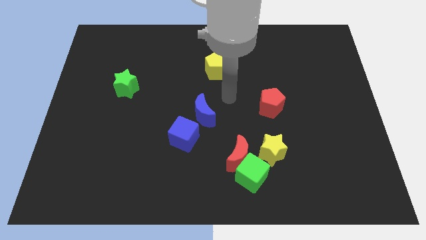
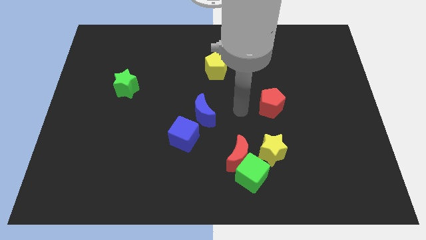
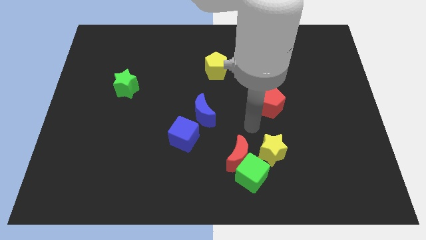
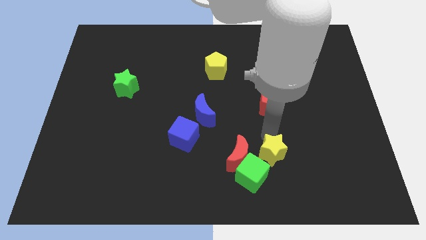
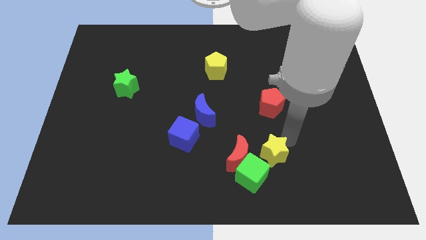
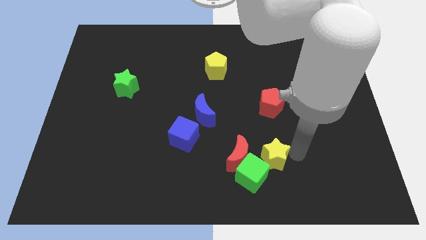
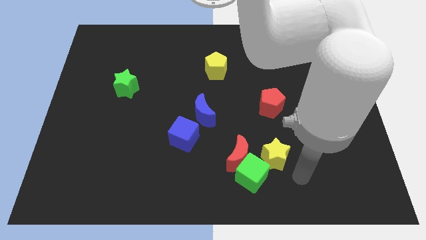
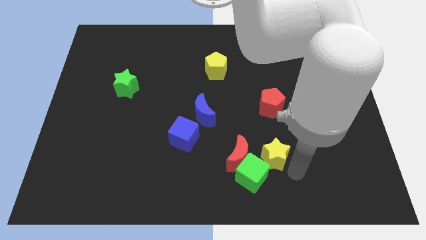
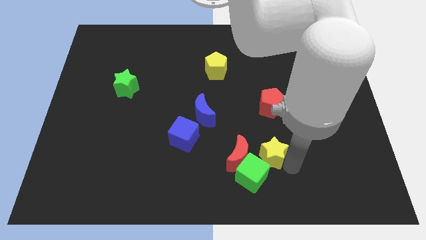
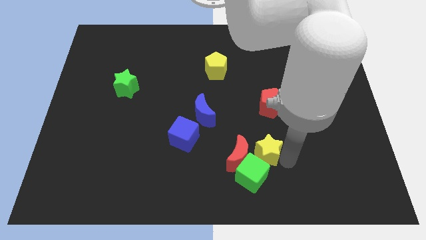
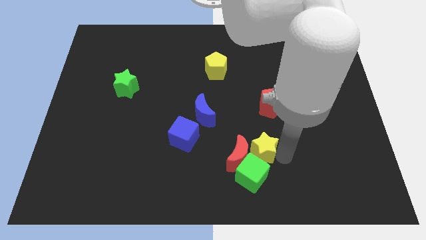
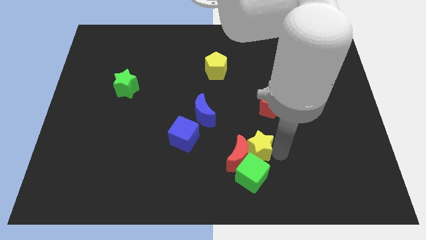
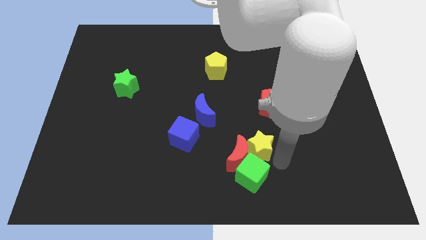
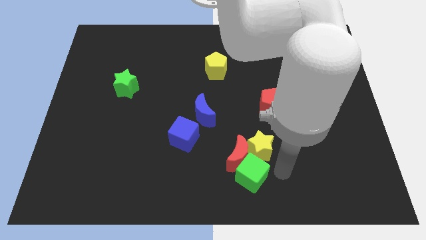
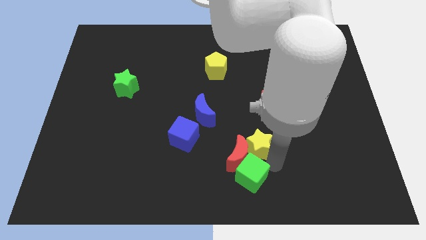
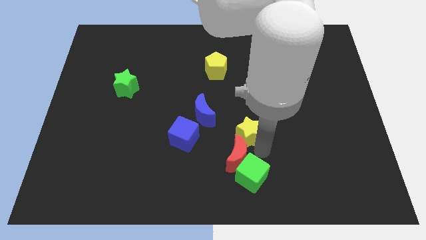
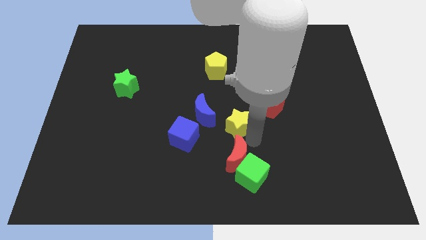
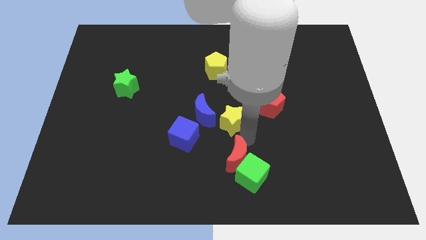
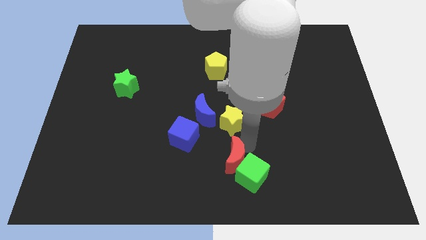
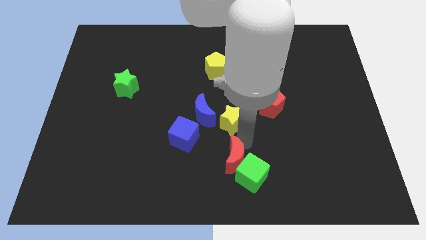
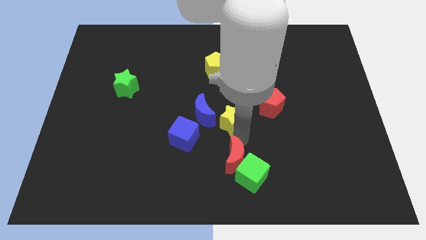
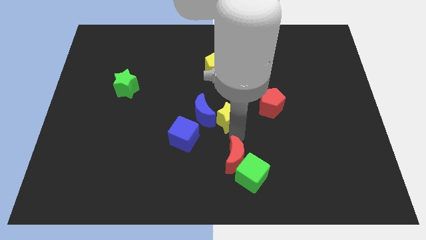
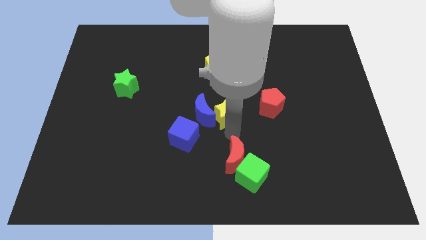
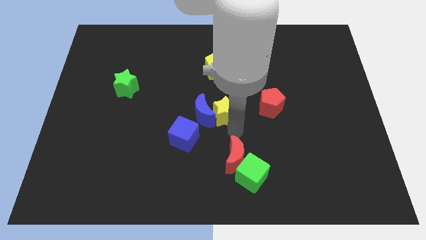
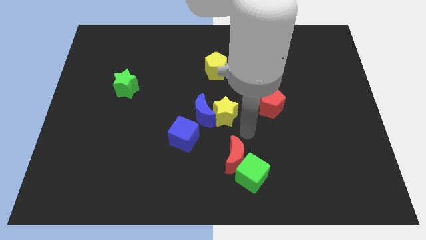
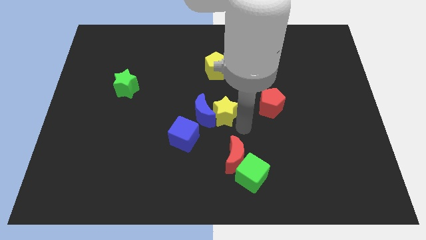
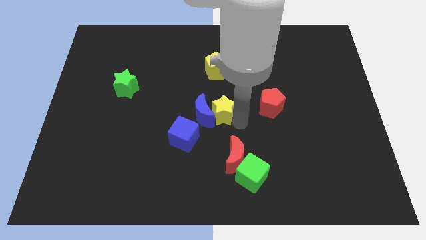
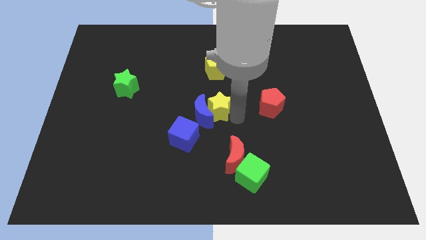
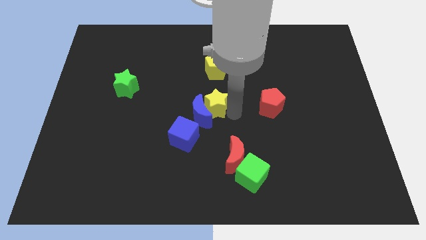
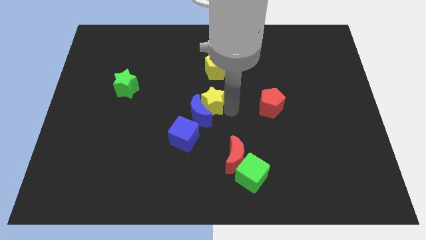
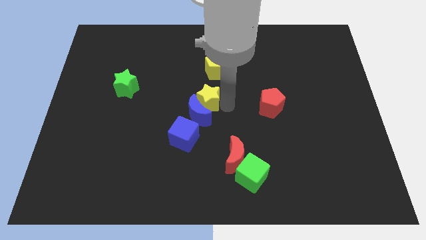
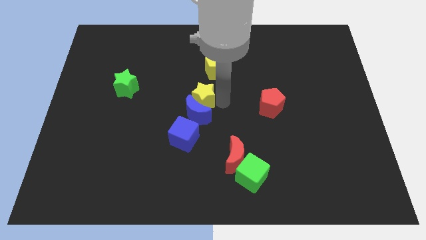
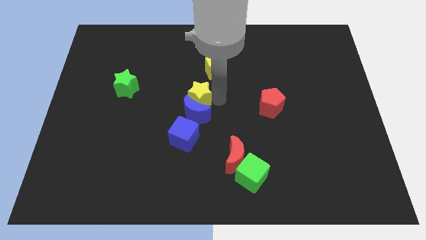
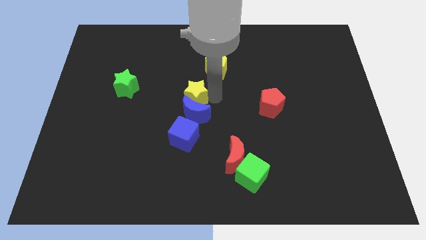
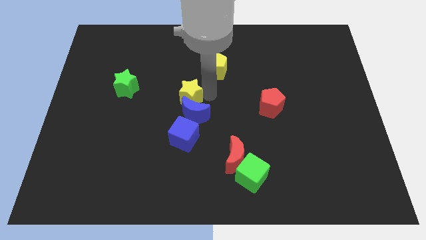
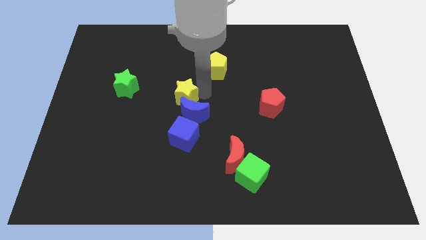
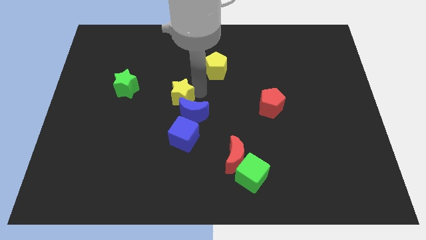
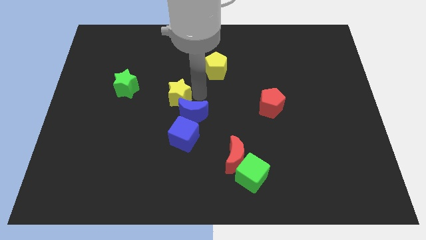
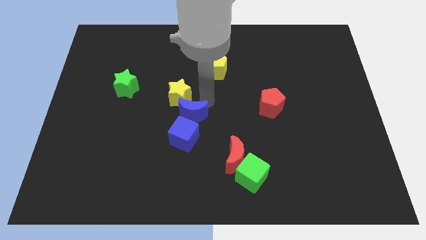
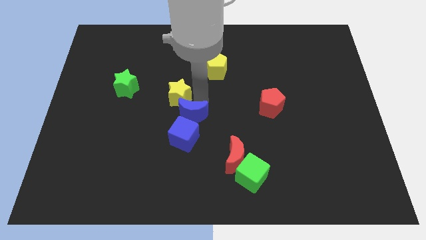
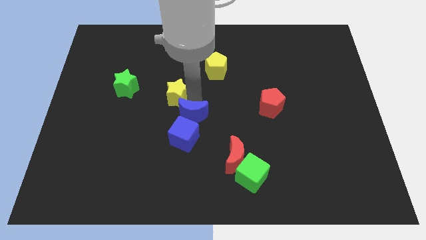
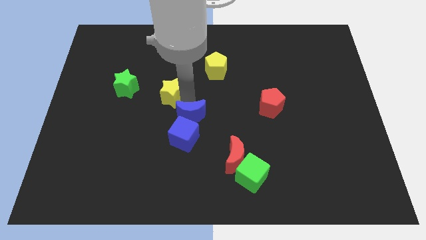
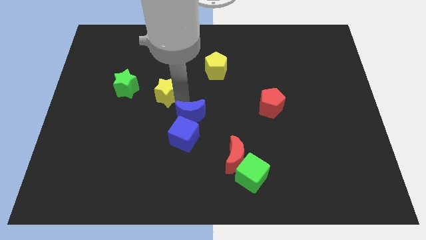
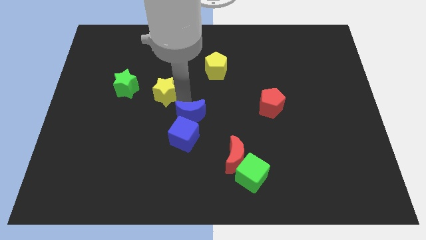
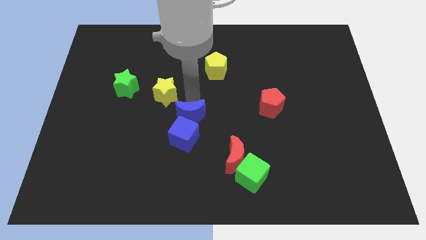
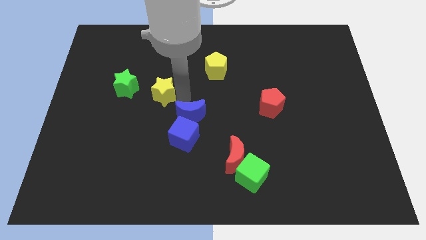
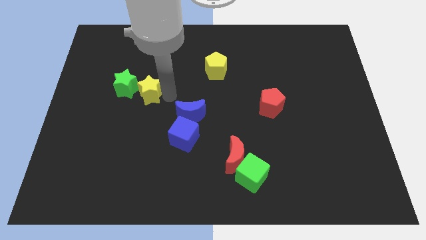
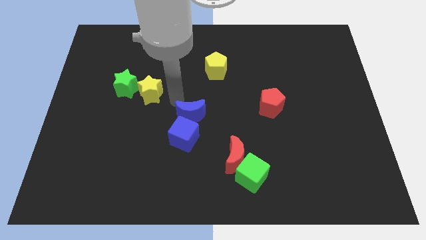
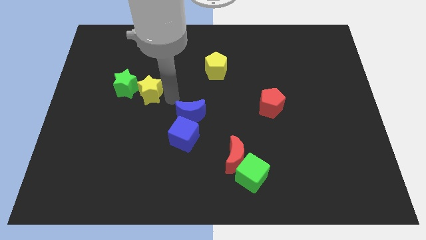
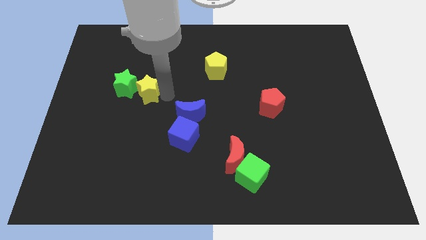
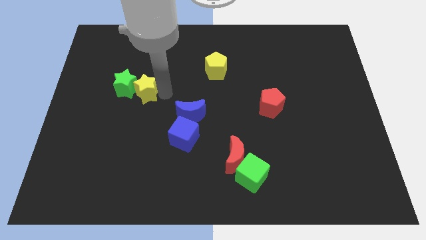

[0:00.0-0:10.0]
push the yellow star close to the green star

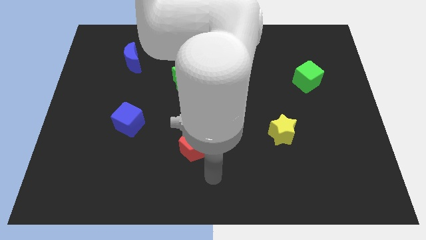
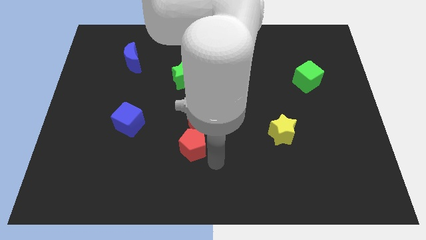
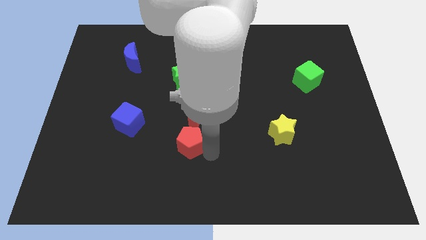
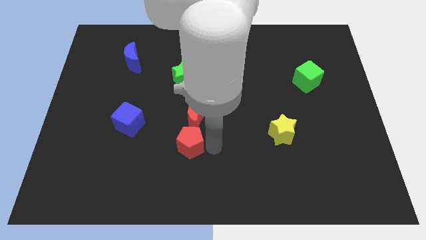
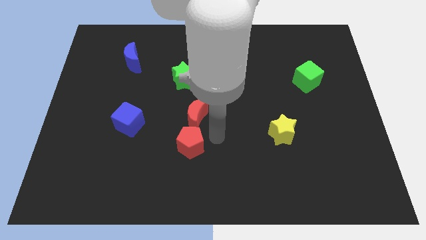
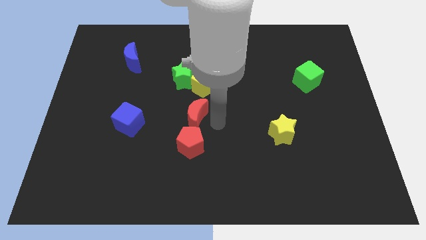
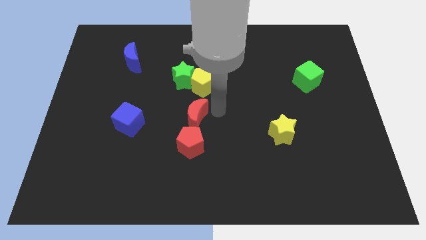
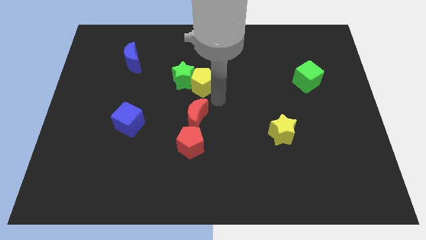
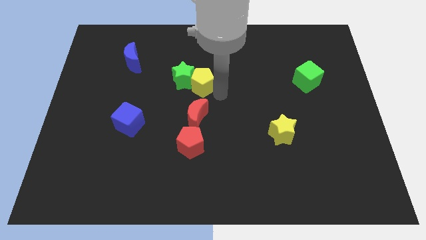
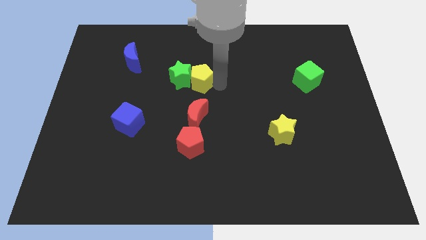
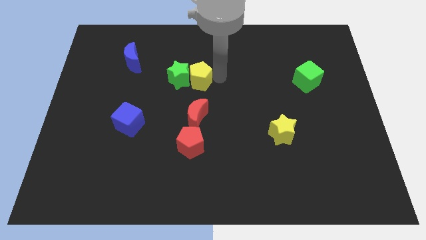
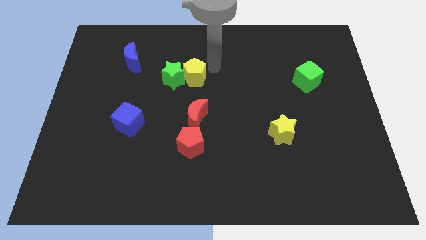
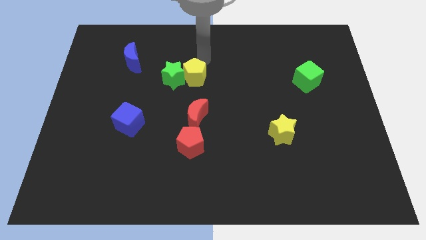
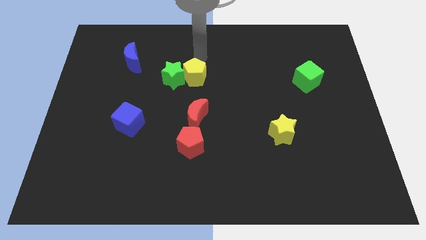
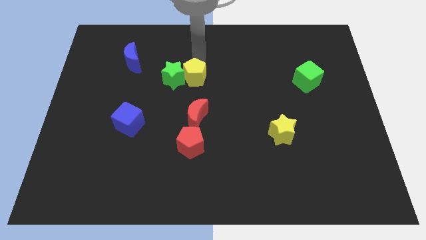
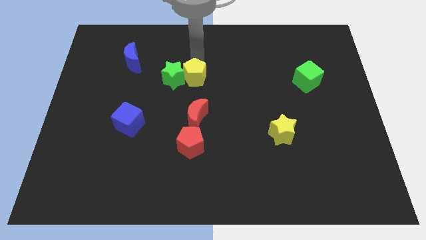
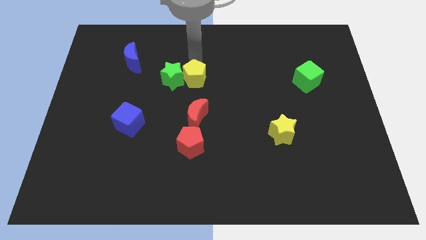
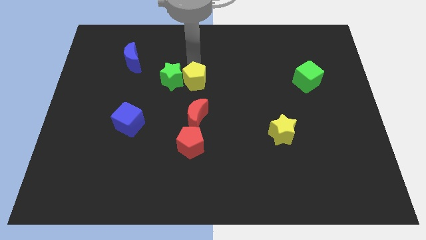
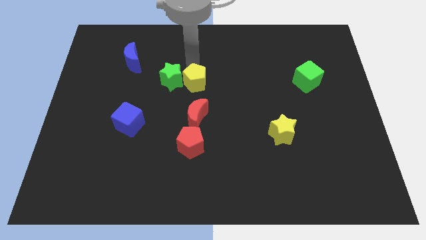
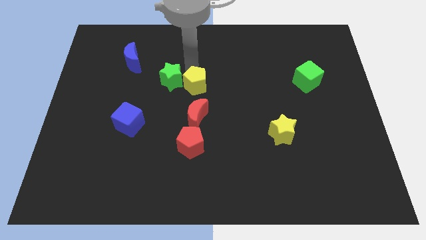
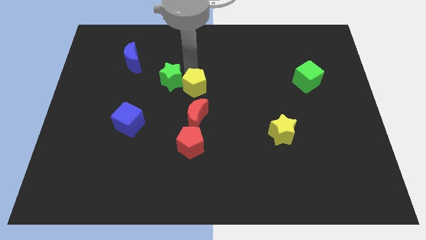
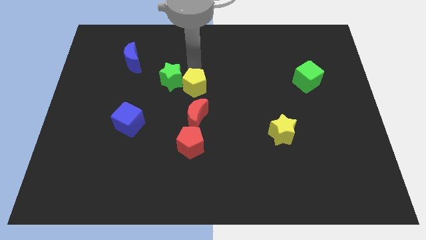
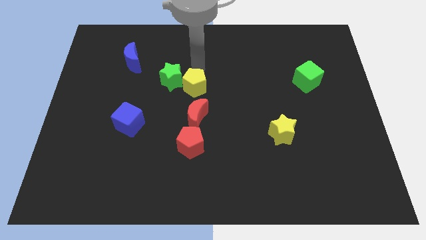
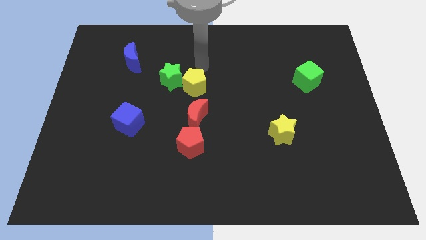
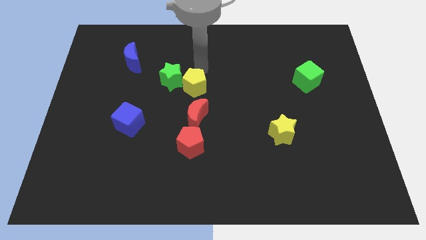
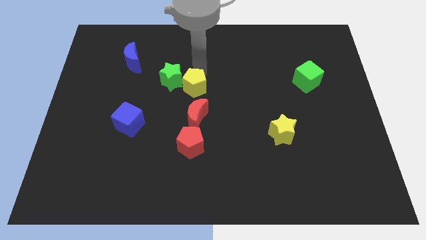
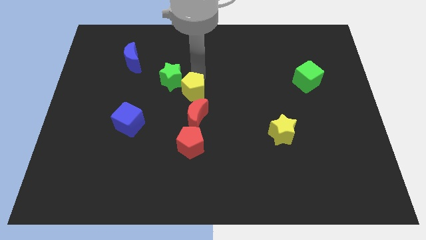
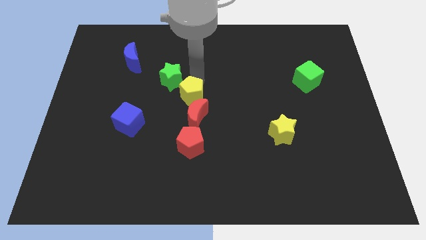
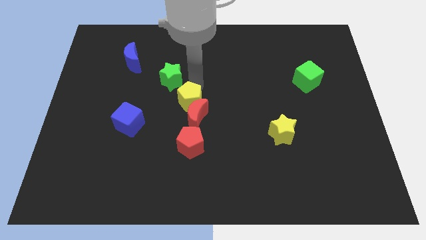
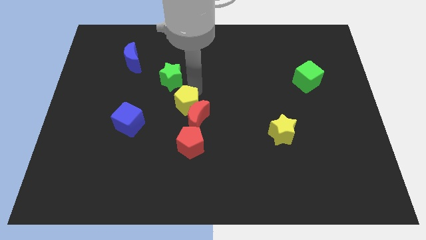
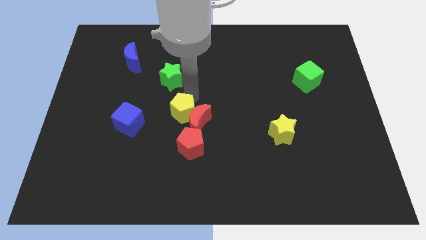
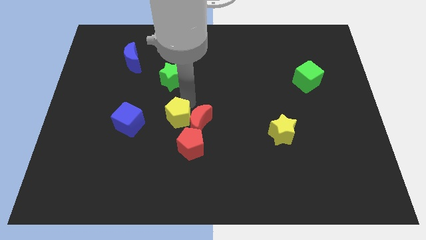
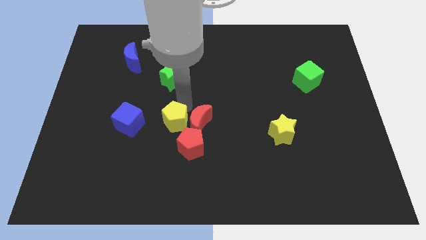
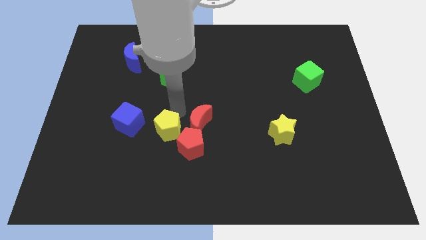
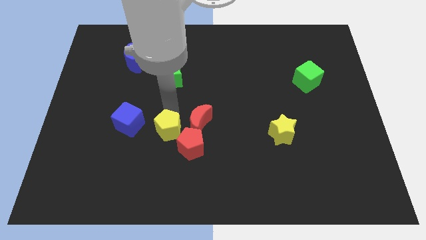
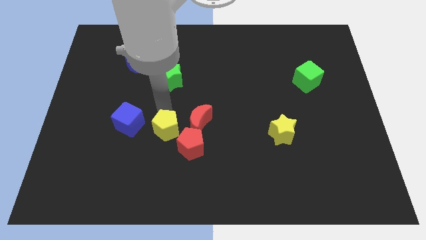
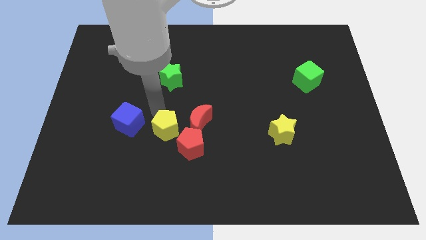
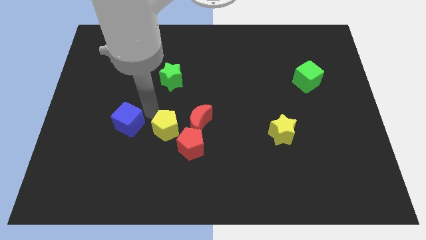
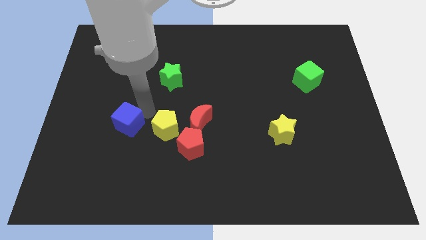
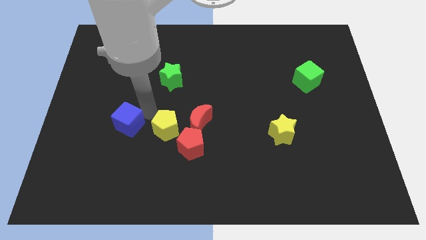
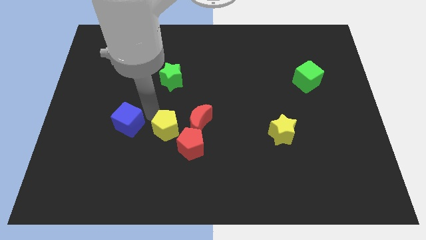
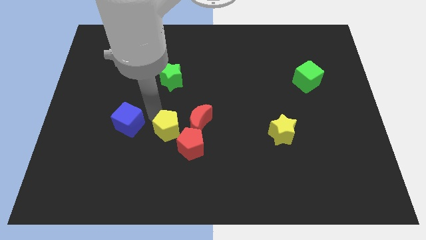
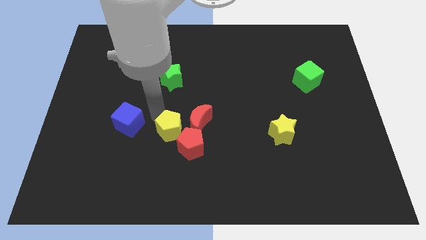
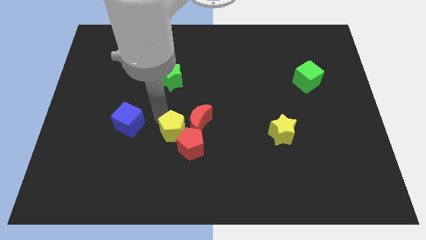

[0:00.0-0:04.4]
put the yellow pentagon to the red pentagon
